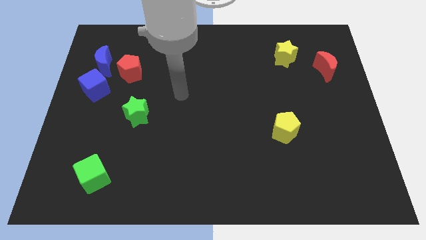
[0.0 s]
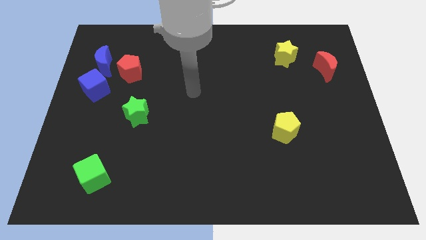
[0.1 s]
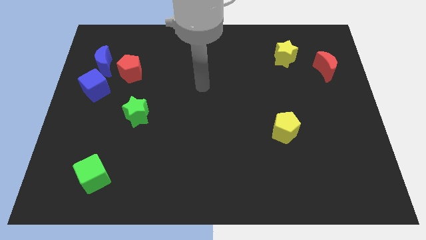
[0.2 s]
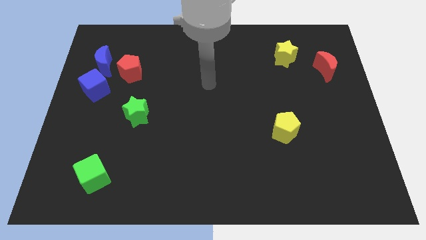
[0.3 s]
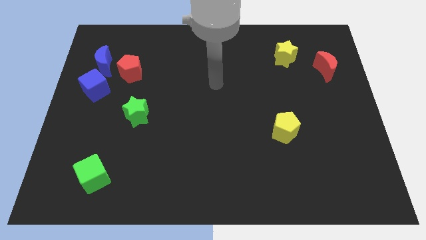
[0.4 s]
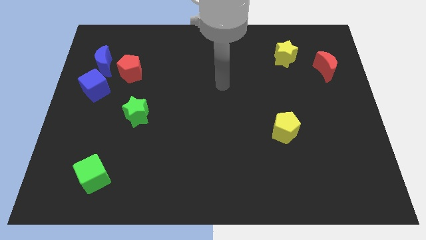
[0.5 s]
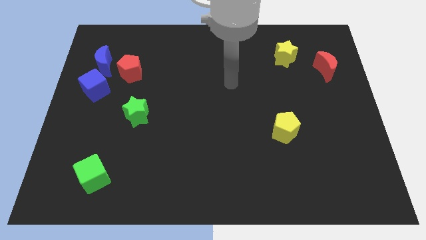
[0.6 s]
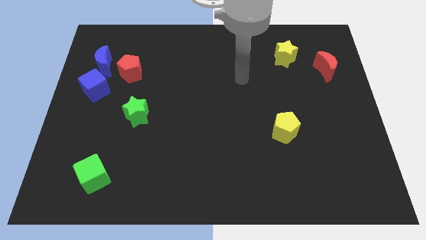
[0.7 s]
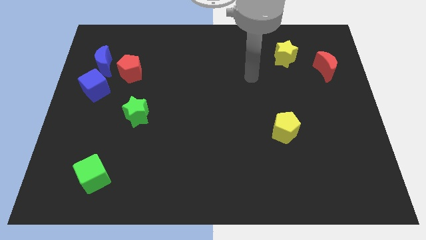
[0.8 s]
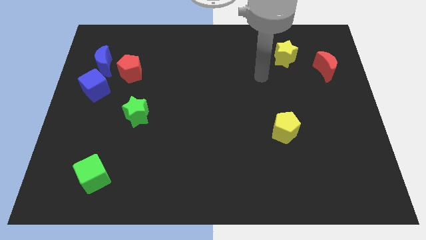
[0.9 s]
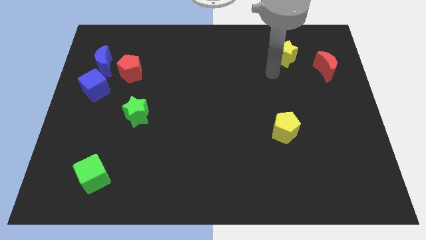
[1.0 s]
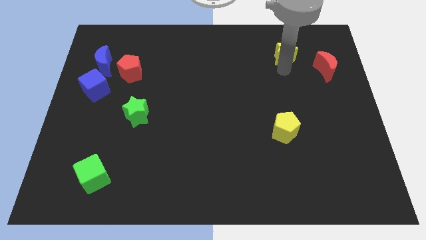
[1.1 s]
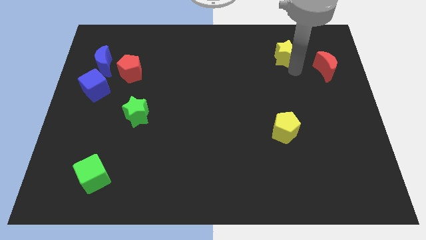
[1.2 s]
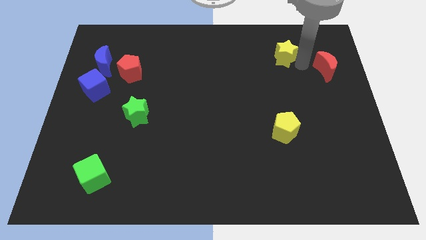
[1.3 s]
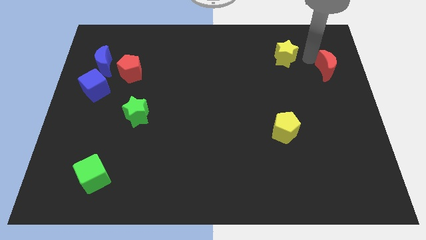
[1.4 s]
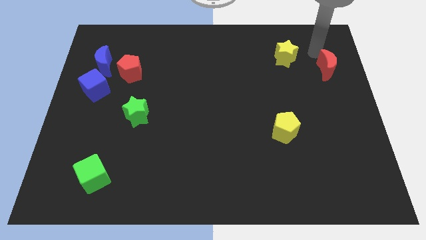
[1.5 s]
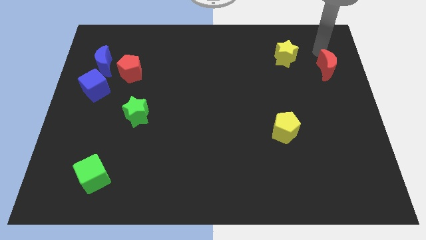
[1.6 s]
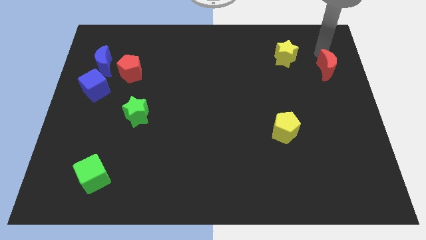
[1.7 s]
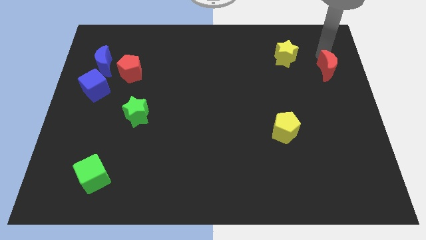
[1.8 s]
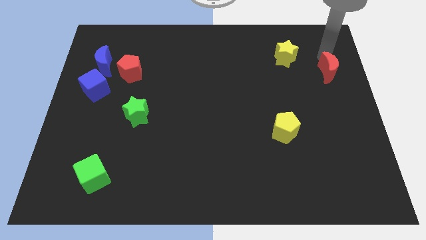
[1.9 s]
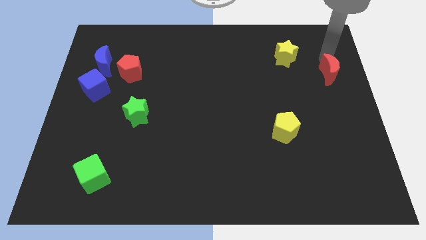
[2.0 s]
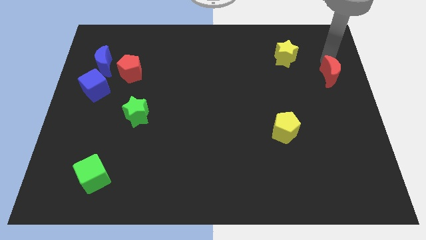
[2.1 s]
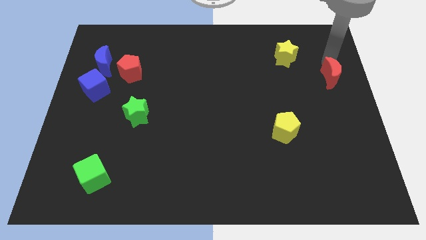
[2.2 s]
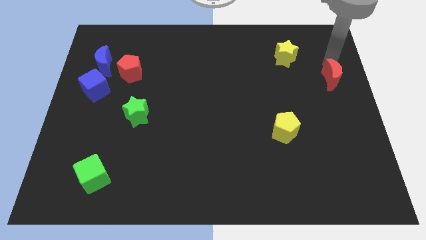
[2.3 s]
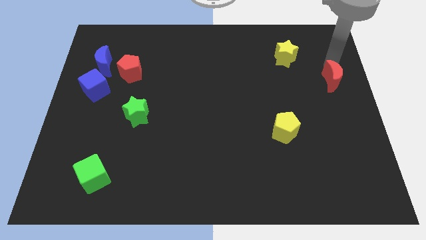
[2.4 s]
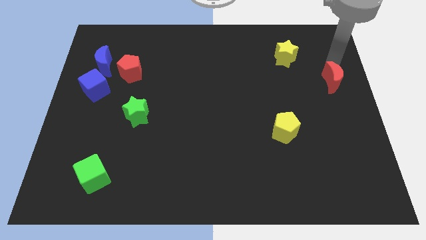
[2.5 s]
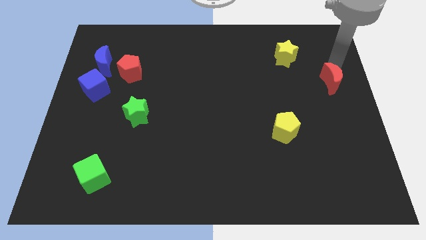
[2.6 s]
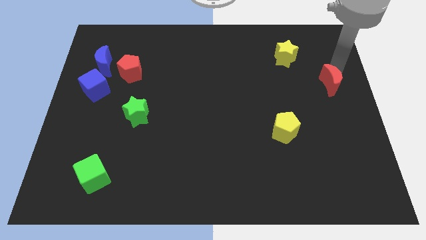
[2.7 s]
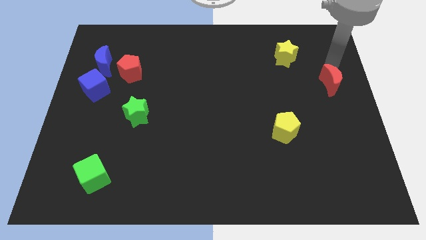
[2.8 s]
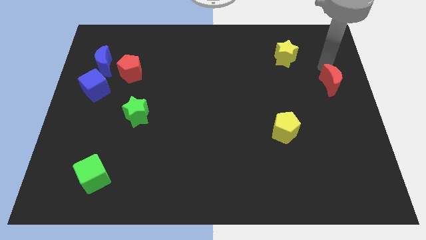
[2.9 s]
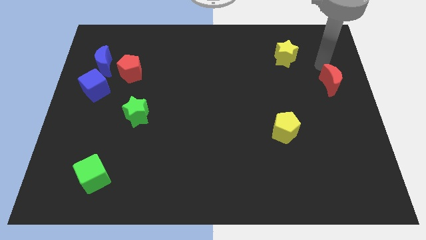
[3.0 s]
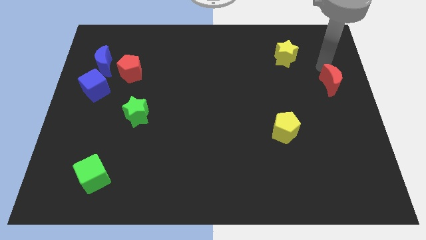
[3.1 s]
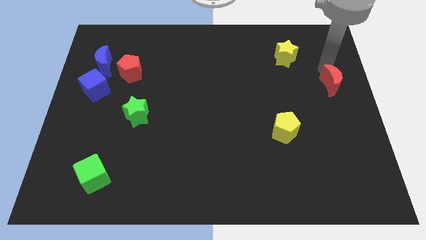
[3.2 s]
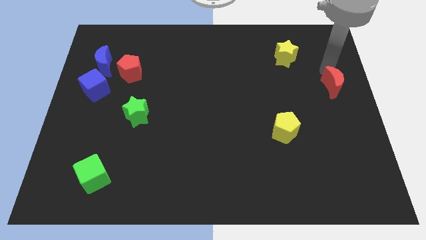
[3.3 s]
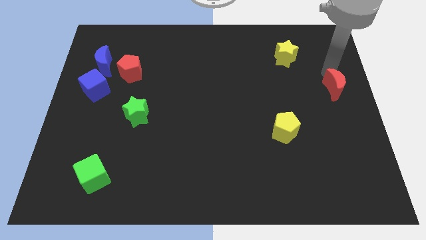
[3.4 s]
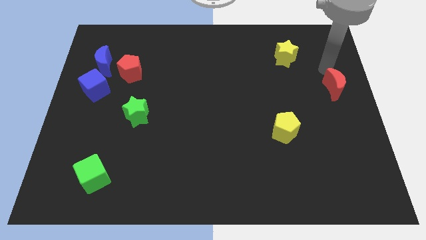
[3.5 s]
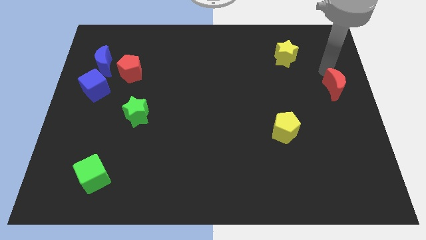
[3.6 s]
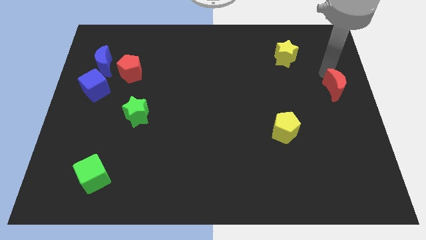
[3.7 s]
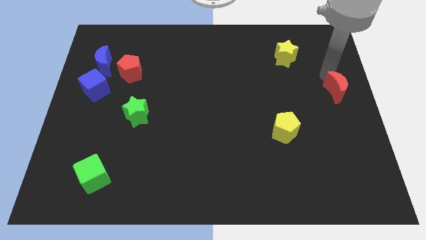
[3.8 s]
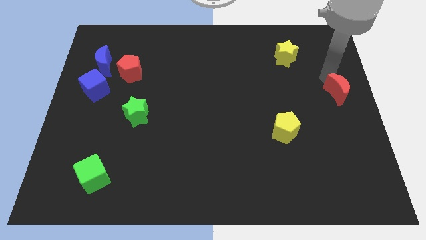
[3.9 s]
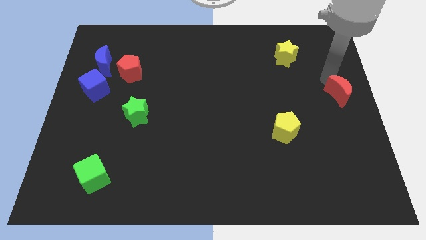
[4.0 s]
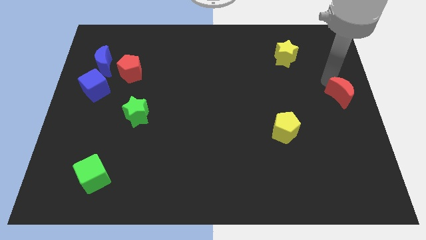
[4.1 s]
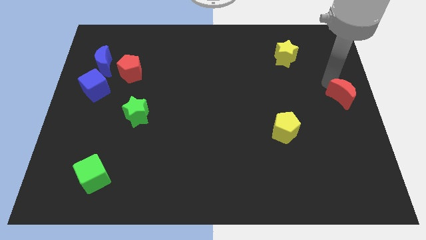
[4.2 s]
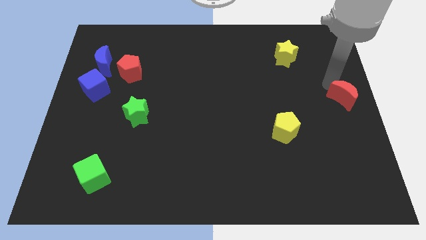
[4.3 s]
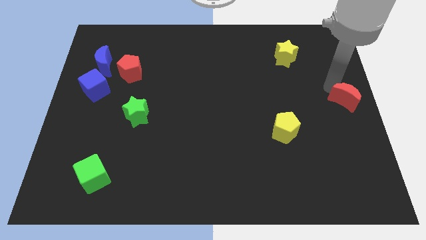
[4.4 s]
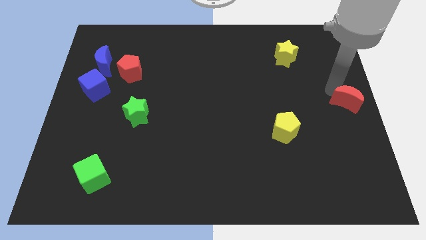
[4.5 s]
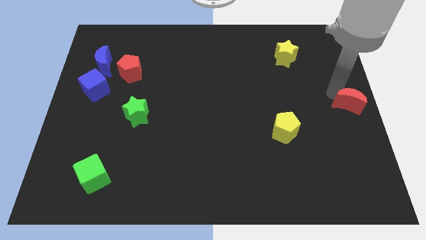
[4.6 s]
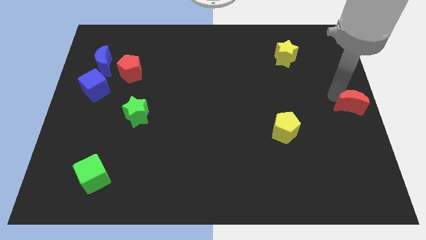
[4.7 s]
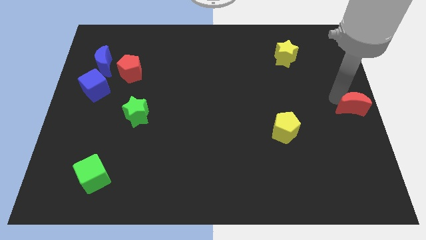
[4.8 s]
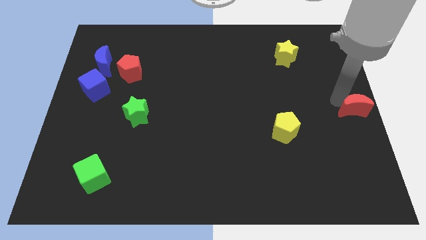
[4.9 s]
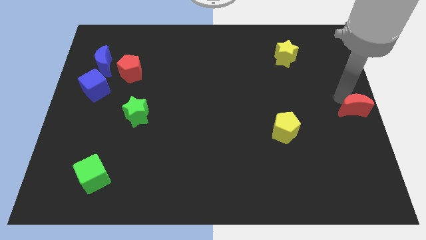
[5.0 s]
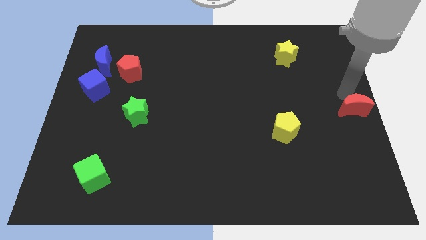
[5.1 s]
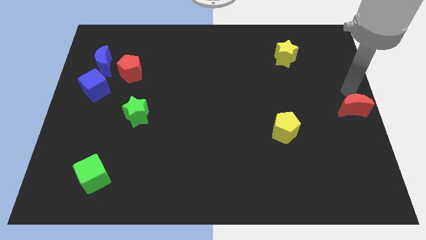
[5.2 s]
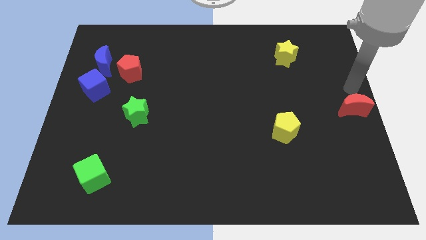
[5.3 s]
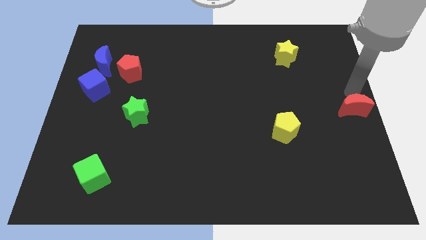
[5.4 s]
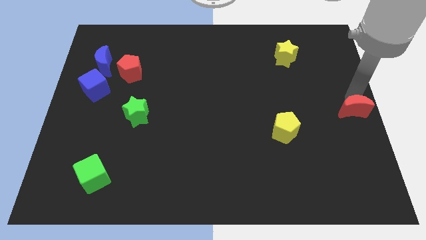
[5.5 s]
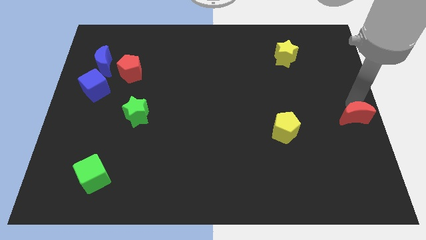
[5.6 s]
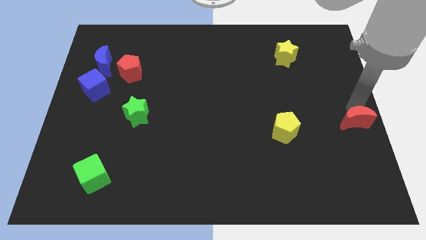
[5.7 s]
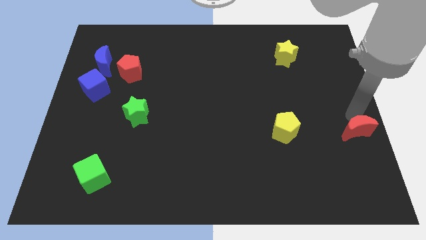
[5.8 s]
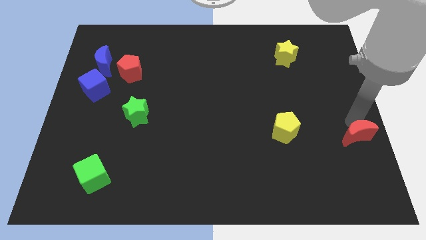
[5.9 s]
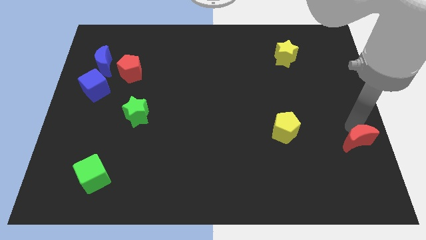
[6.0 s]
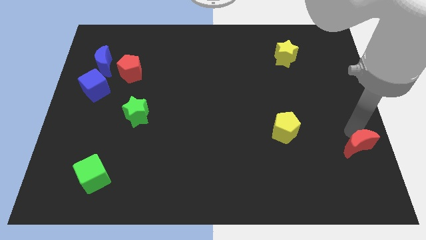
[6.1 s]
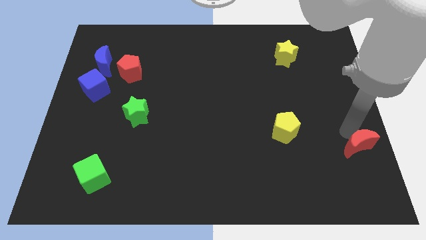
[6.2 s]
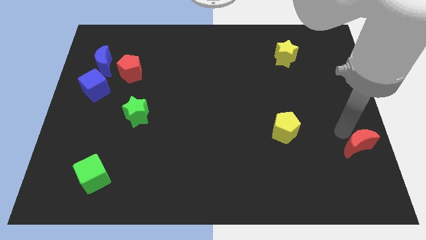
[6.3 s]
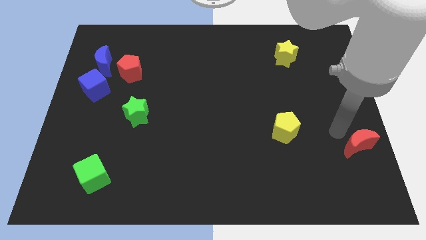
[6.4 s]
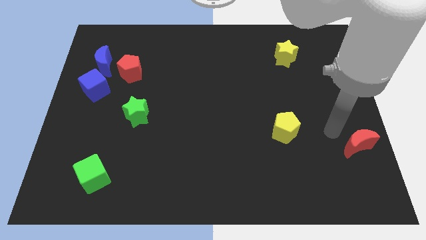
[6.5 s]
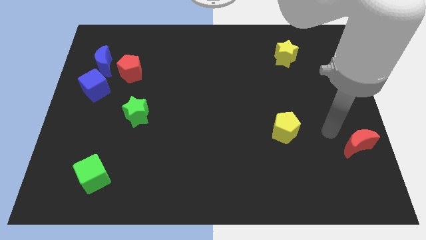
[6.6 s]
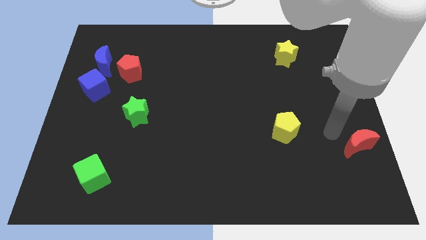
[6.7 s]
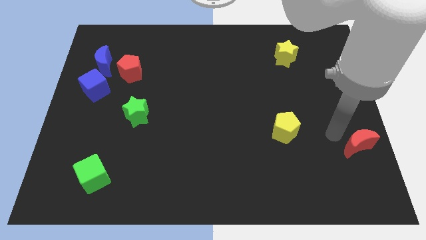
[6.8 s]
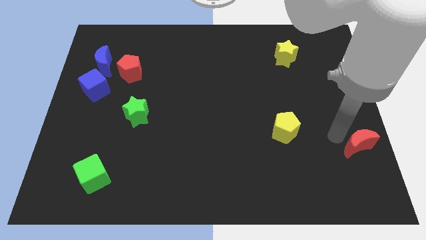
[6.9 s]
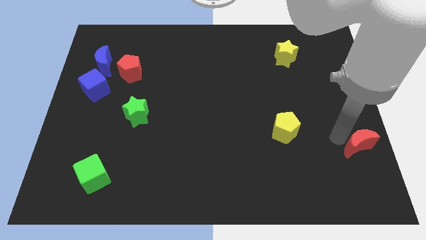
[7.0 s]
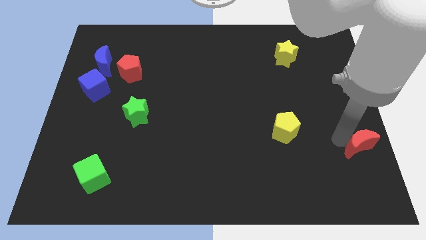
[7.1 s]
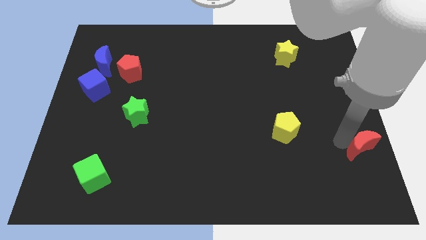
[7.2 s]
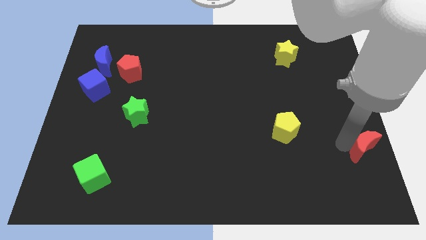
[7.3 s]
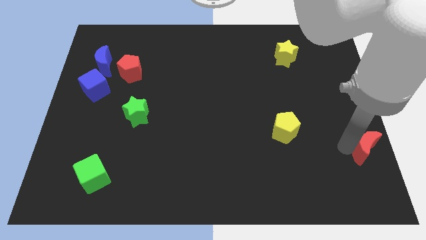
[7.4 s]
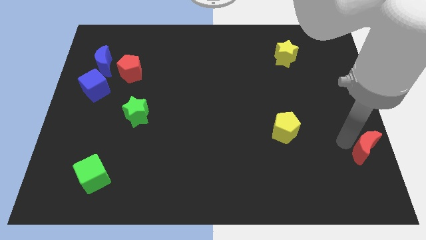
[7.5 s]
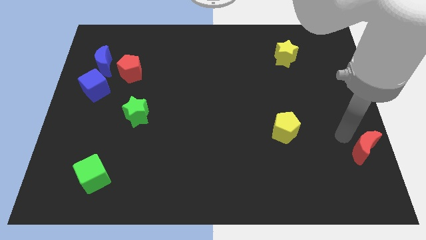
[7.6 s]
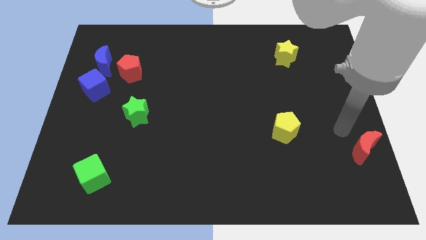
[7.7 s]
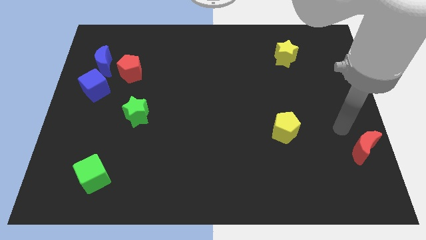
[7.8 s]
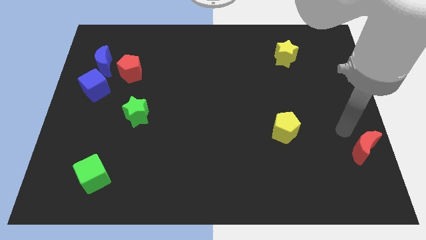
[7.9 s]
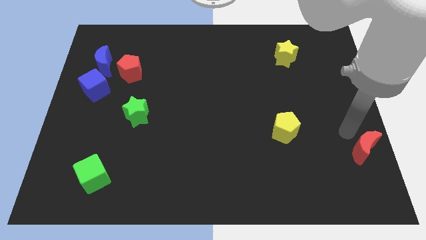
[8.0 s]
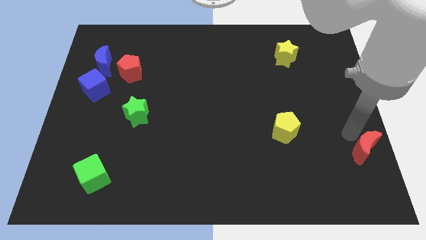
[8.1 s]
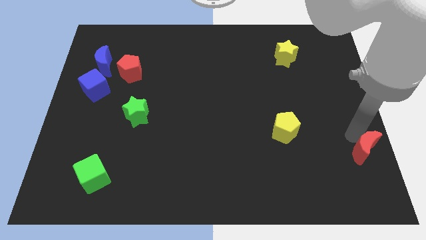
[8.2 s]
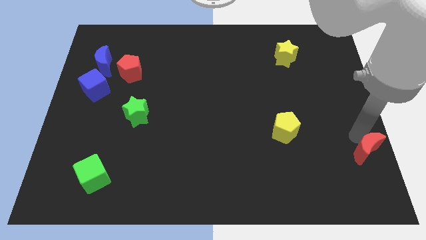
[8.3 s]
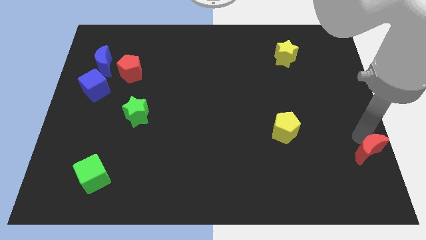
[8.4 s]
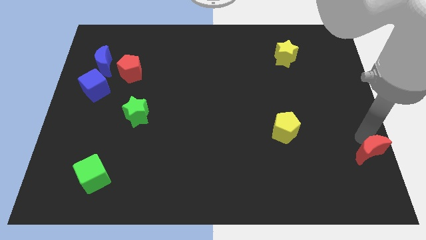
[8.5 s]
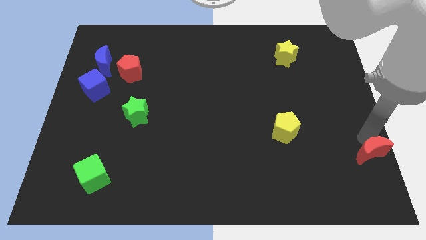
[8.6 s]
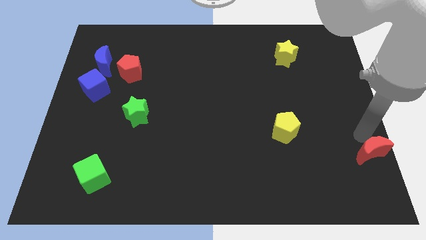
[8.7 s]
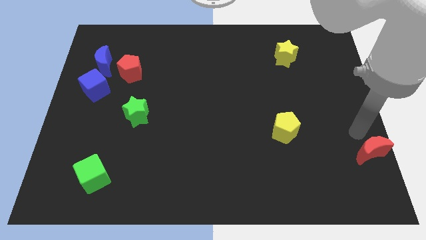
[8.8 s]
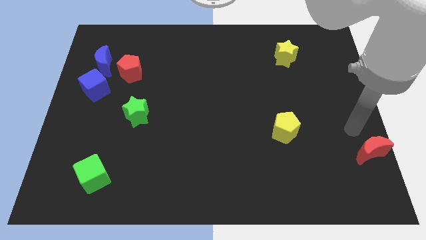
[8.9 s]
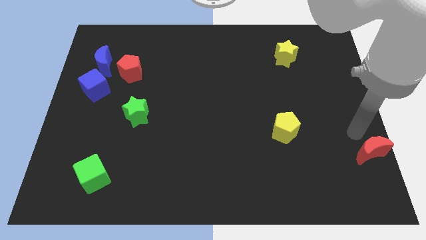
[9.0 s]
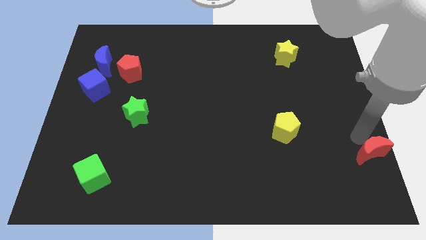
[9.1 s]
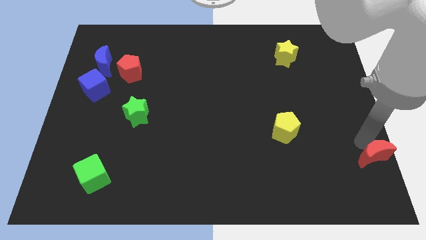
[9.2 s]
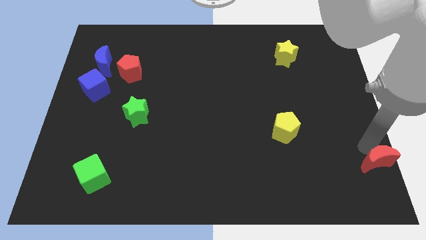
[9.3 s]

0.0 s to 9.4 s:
put the red moon to the bottom right
